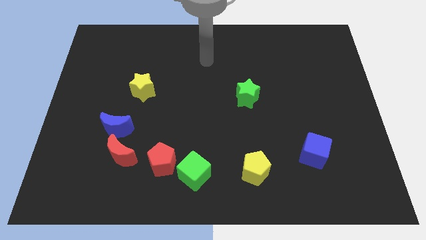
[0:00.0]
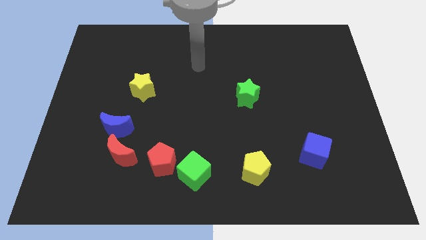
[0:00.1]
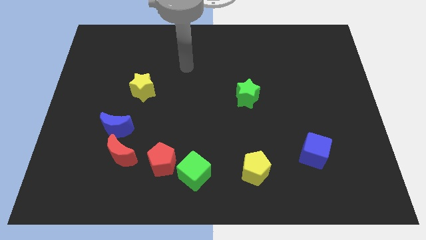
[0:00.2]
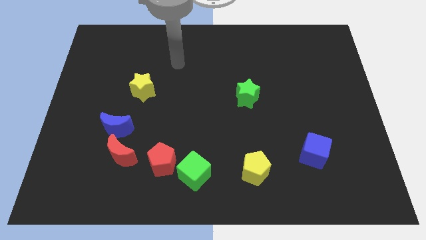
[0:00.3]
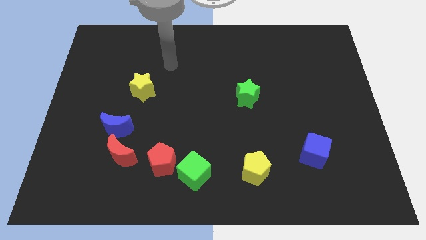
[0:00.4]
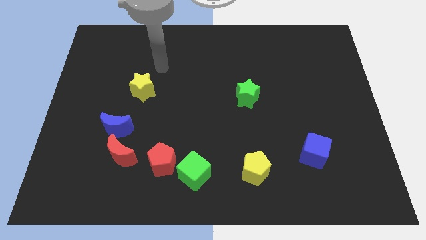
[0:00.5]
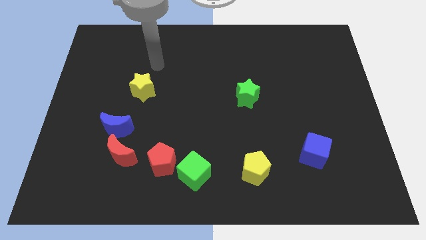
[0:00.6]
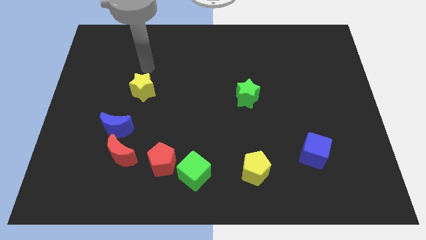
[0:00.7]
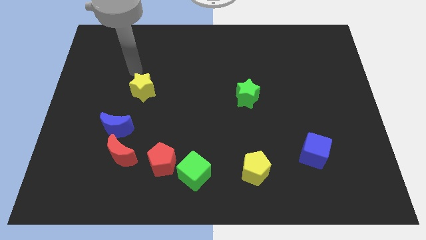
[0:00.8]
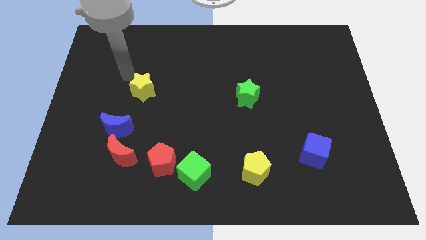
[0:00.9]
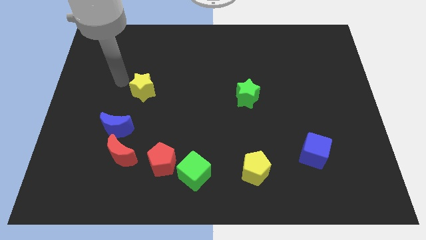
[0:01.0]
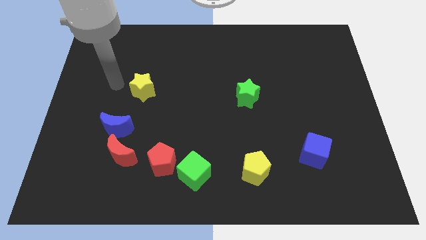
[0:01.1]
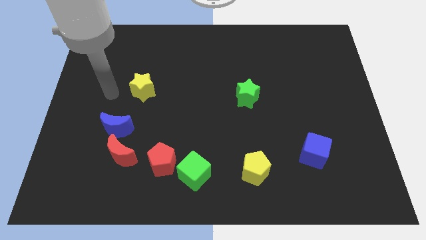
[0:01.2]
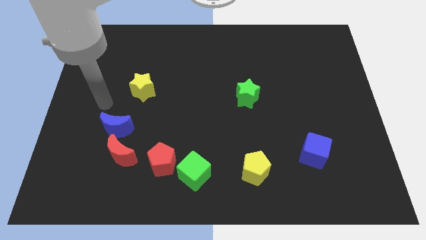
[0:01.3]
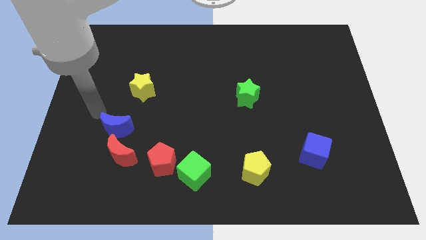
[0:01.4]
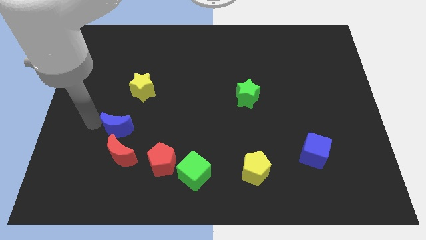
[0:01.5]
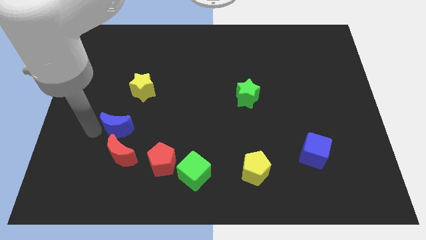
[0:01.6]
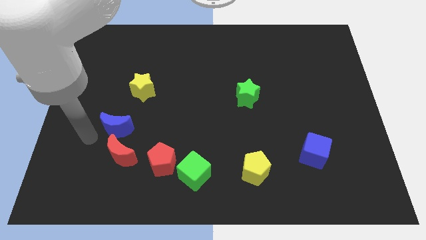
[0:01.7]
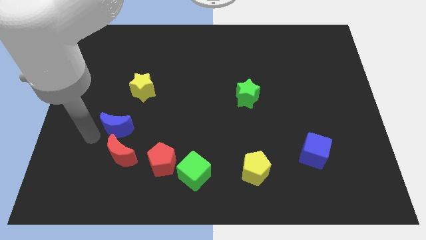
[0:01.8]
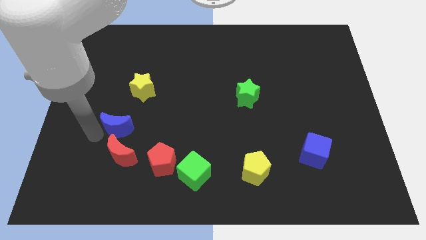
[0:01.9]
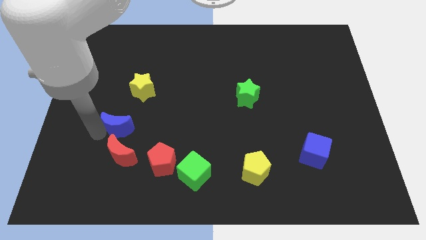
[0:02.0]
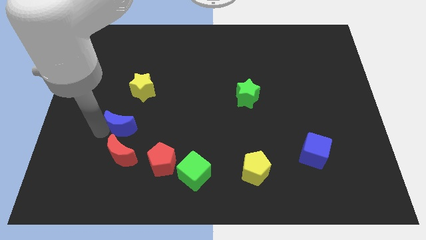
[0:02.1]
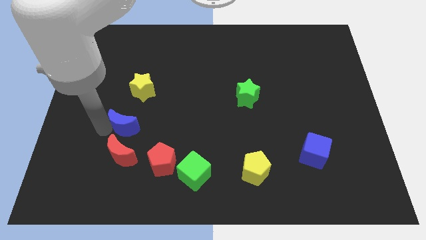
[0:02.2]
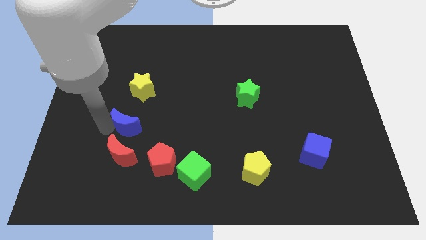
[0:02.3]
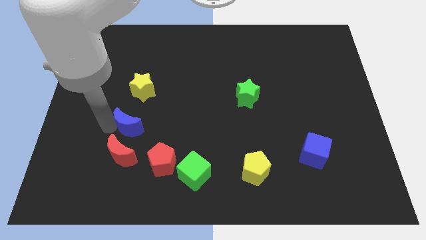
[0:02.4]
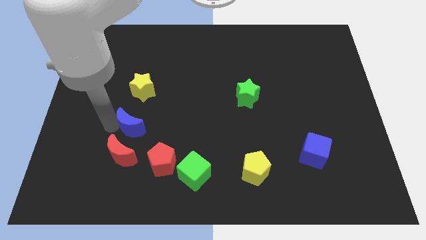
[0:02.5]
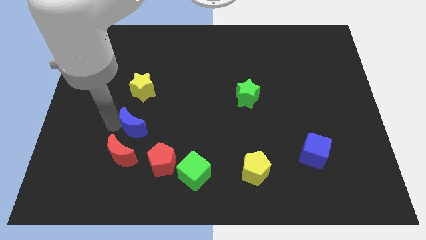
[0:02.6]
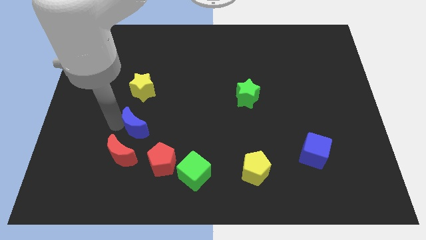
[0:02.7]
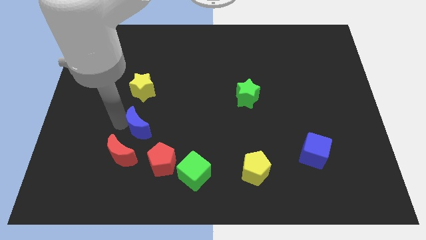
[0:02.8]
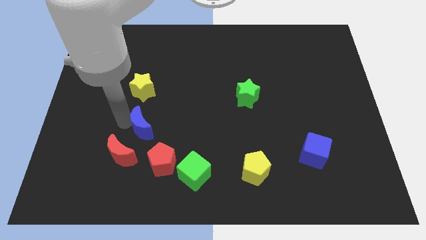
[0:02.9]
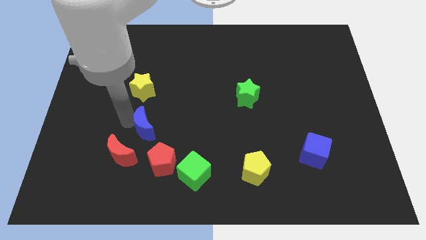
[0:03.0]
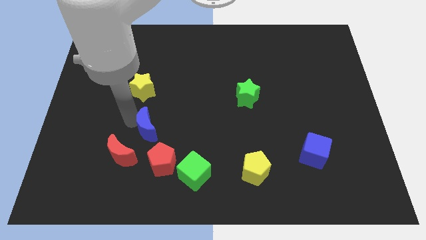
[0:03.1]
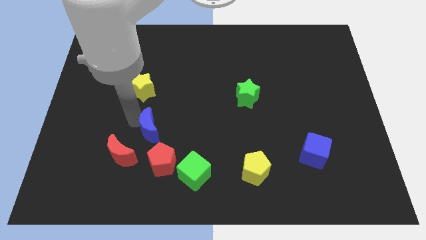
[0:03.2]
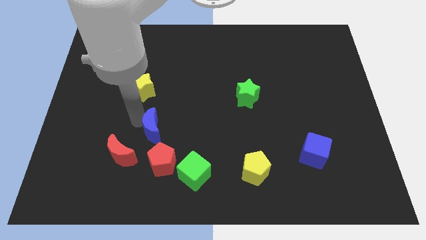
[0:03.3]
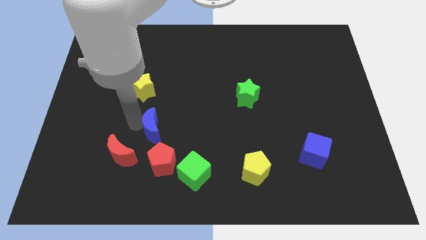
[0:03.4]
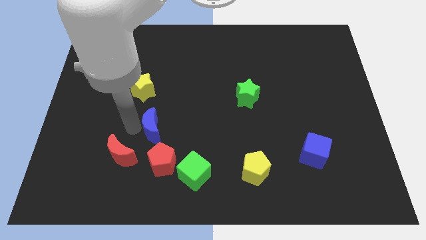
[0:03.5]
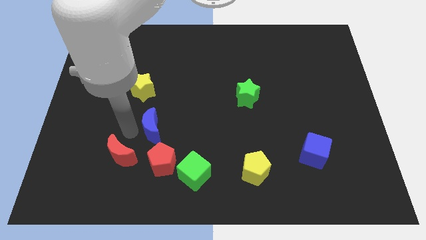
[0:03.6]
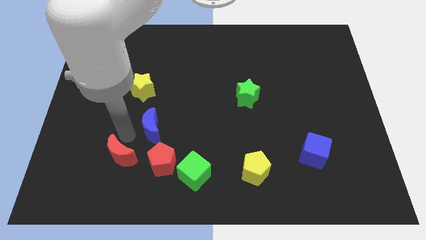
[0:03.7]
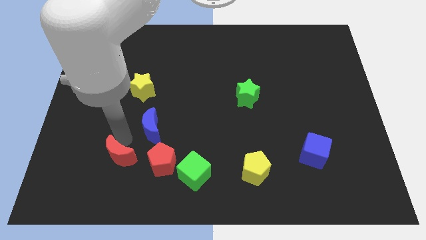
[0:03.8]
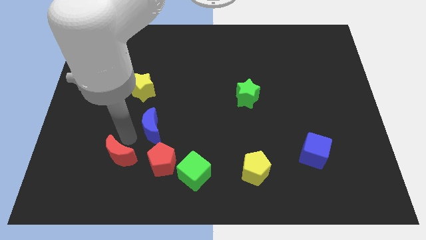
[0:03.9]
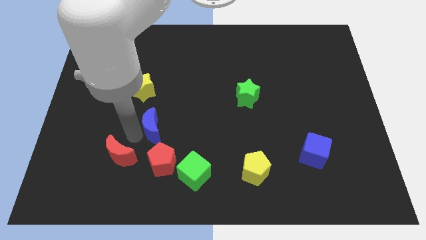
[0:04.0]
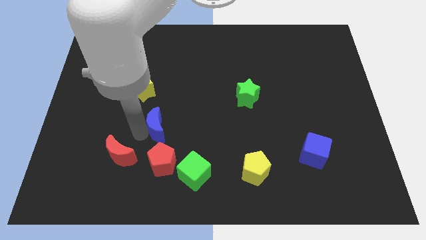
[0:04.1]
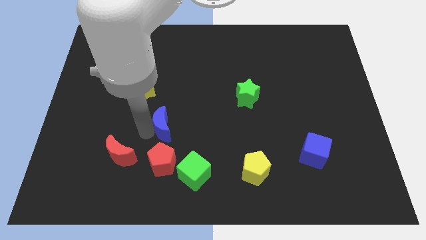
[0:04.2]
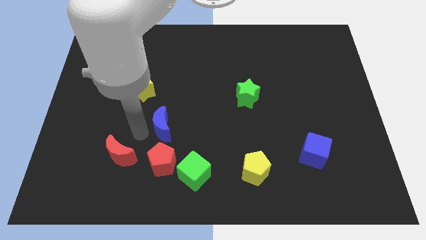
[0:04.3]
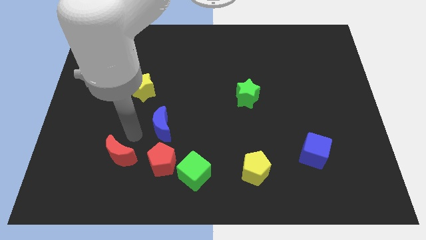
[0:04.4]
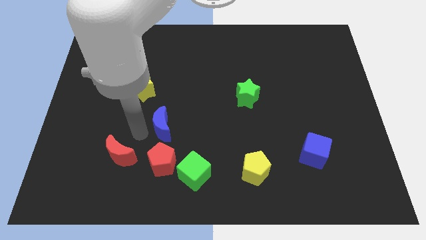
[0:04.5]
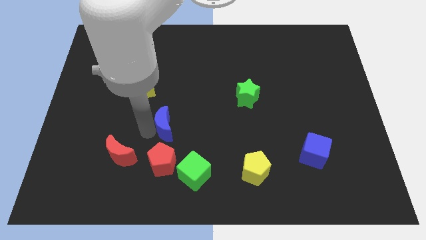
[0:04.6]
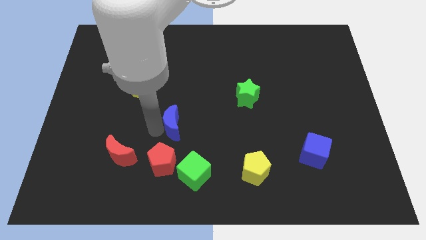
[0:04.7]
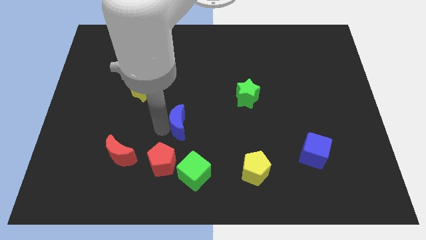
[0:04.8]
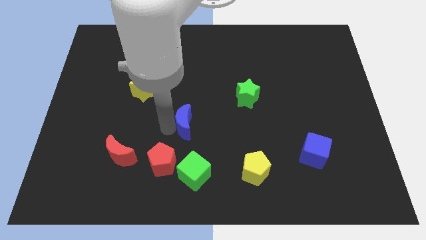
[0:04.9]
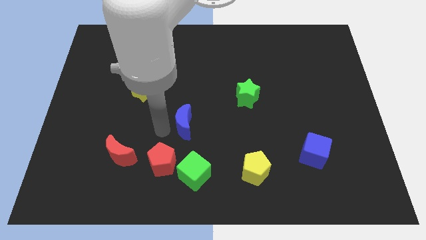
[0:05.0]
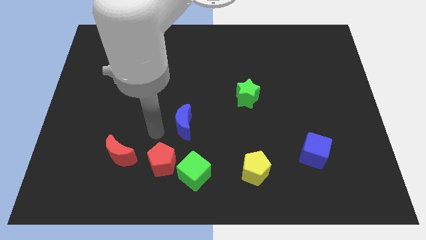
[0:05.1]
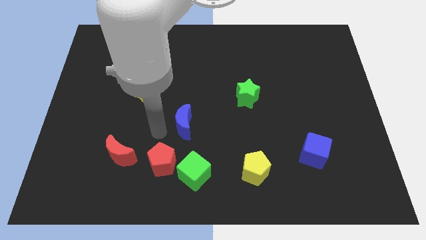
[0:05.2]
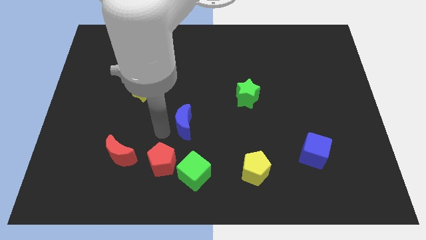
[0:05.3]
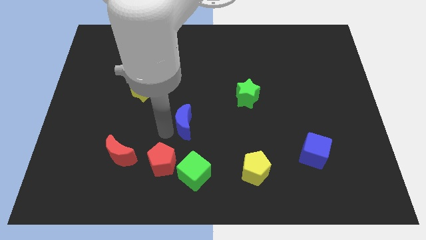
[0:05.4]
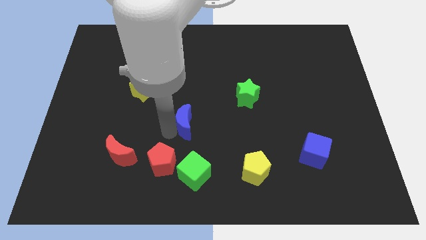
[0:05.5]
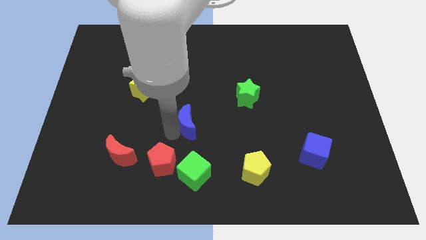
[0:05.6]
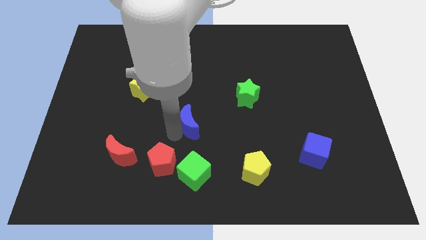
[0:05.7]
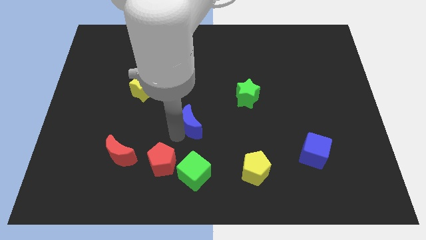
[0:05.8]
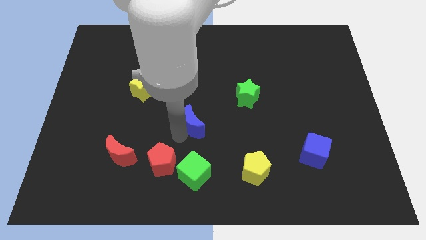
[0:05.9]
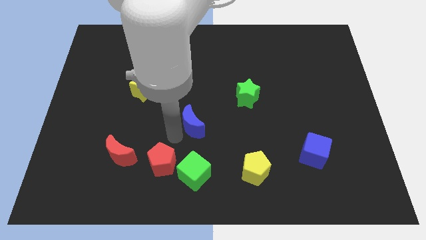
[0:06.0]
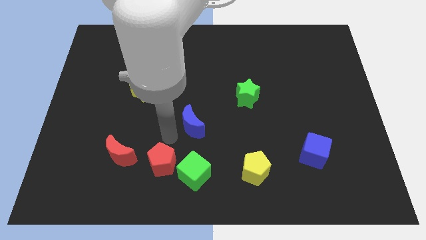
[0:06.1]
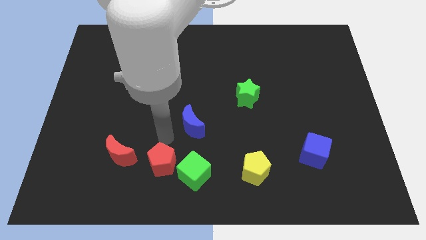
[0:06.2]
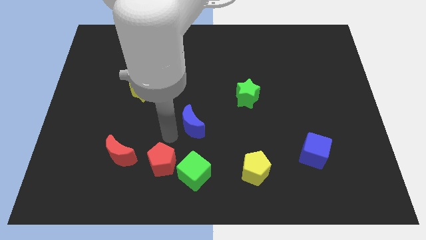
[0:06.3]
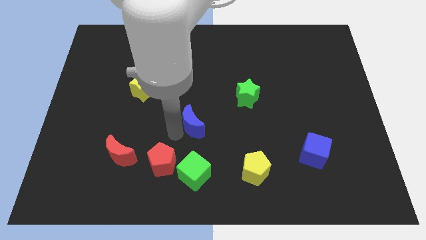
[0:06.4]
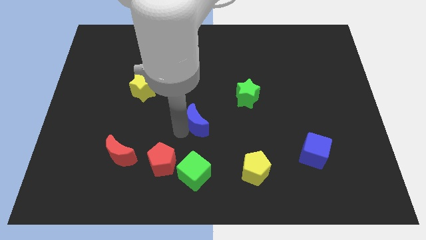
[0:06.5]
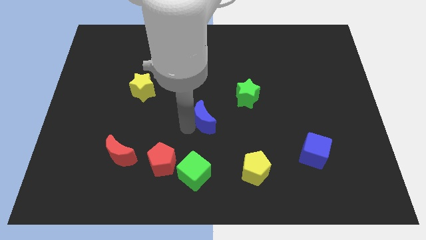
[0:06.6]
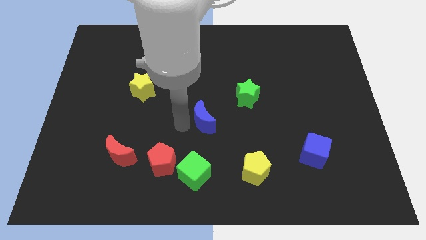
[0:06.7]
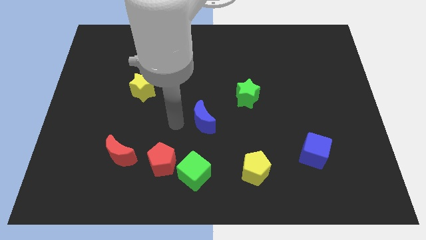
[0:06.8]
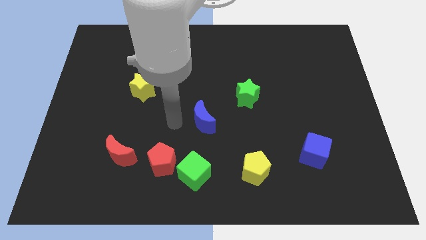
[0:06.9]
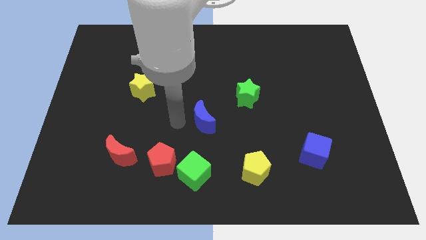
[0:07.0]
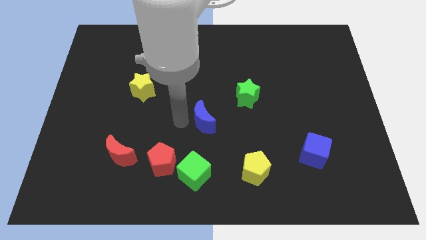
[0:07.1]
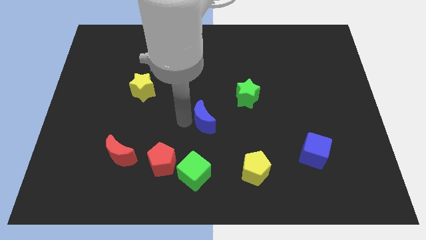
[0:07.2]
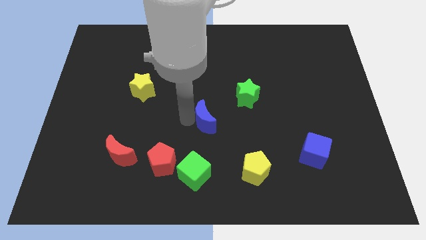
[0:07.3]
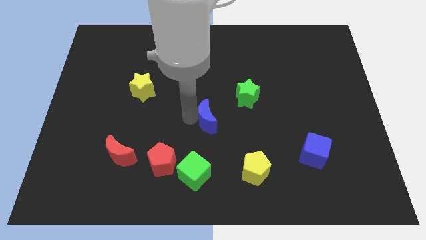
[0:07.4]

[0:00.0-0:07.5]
slide the blue moon right

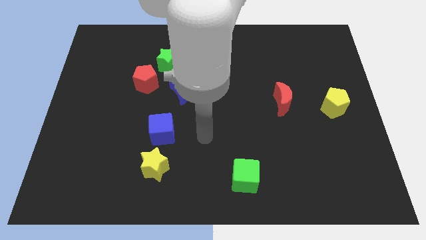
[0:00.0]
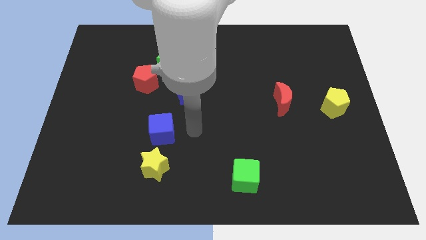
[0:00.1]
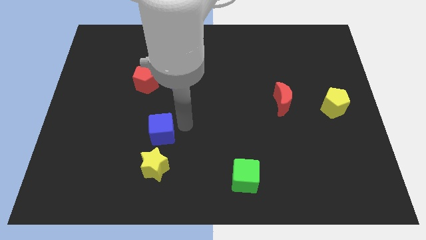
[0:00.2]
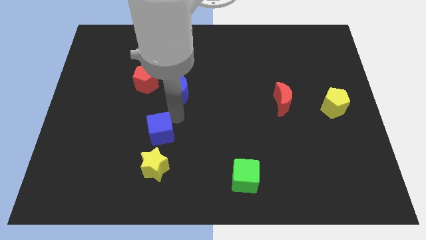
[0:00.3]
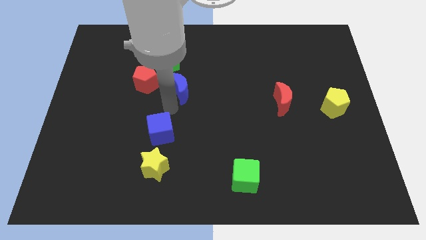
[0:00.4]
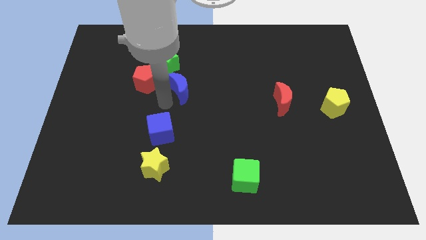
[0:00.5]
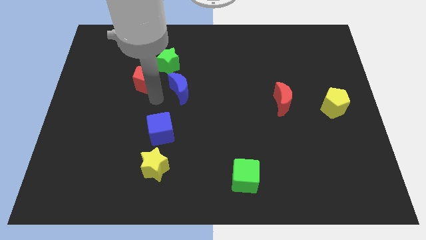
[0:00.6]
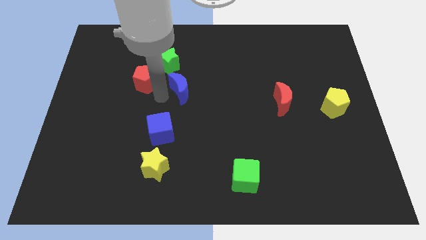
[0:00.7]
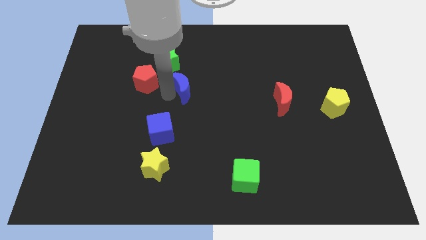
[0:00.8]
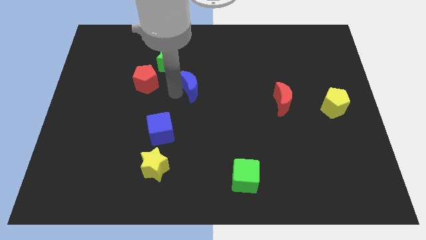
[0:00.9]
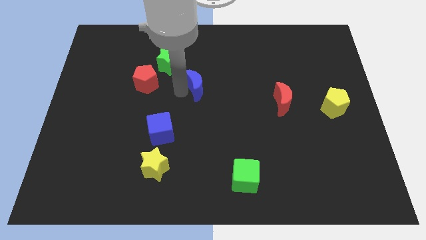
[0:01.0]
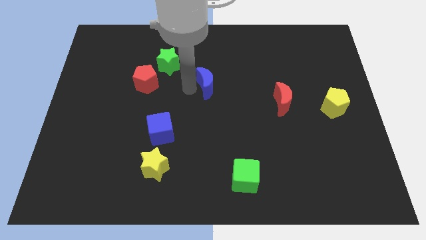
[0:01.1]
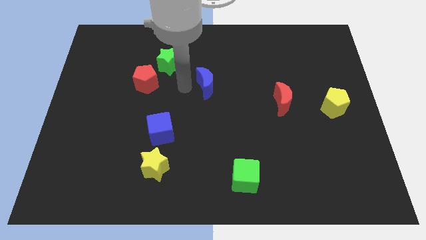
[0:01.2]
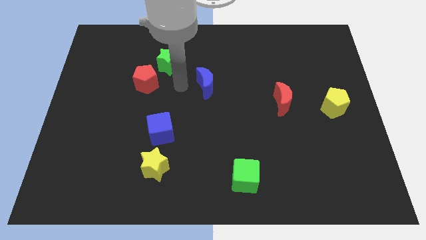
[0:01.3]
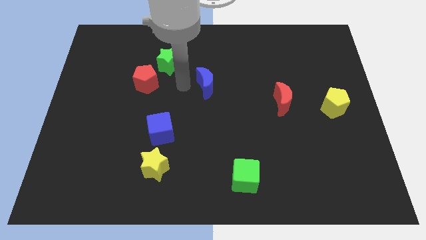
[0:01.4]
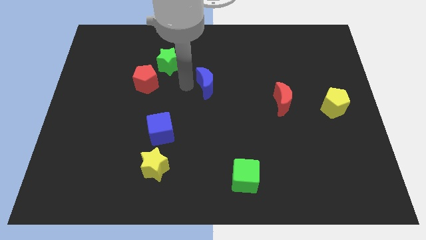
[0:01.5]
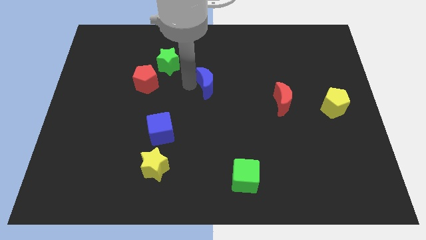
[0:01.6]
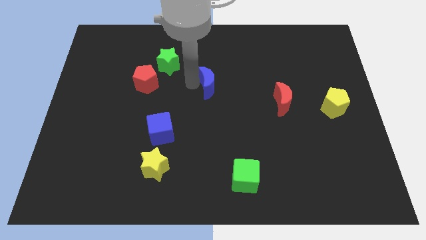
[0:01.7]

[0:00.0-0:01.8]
move the blue moon right a little
